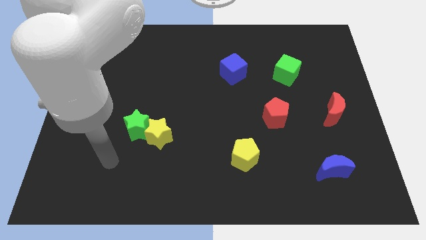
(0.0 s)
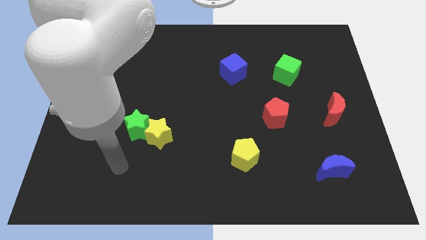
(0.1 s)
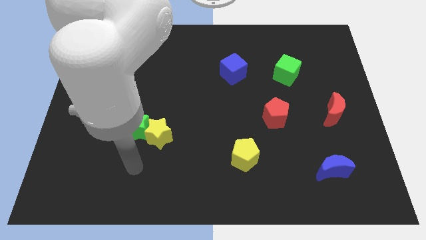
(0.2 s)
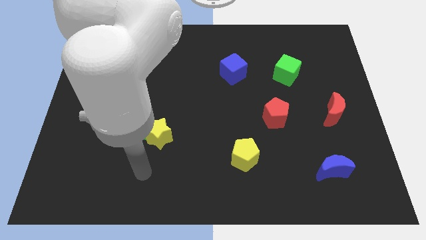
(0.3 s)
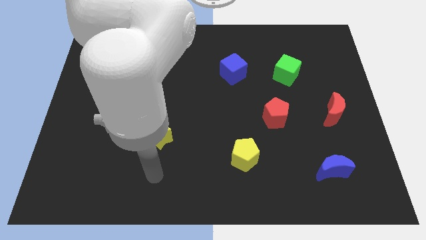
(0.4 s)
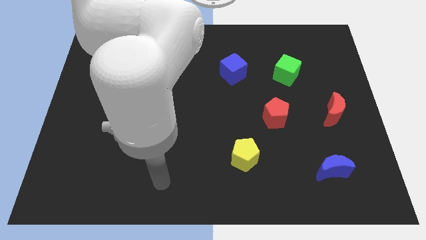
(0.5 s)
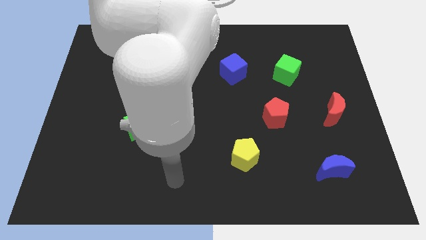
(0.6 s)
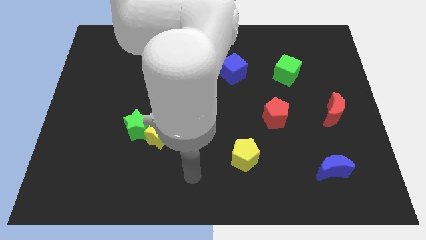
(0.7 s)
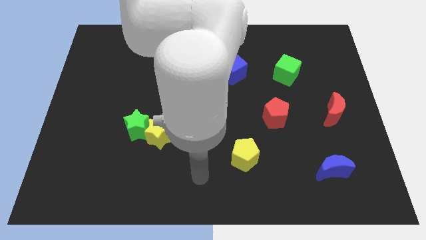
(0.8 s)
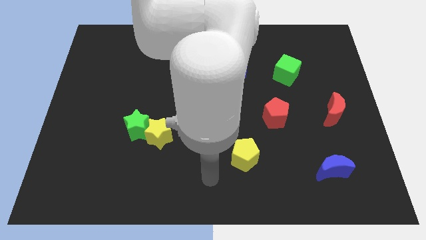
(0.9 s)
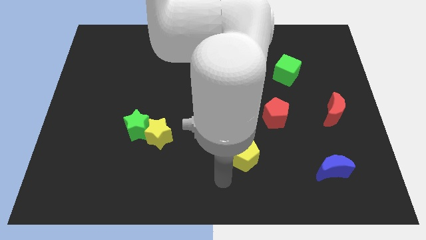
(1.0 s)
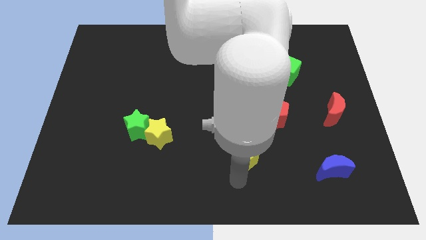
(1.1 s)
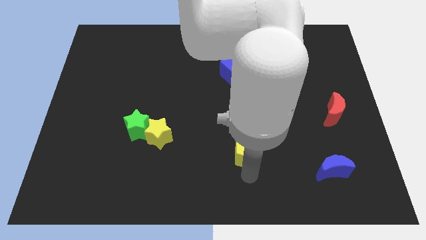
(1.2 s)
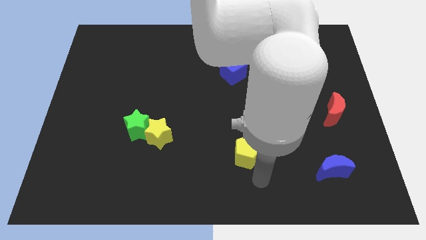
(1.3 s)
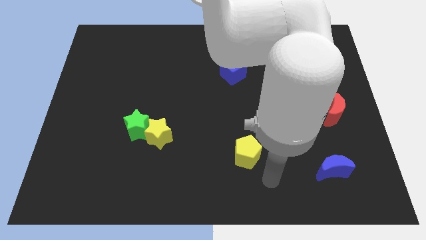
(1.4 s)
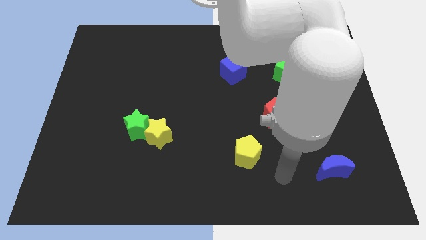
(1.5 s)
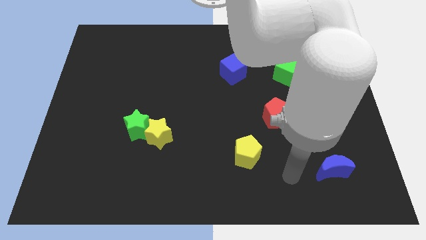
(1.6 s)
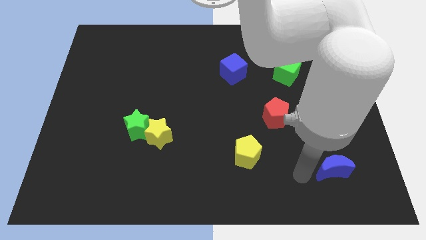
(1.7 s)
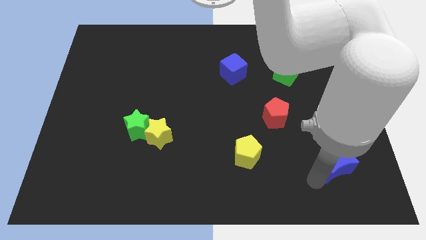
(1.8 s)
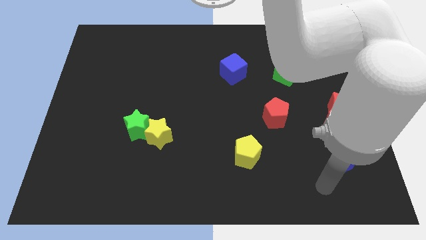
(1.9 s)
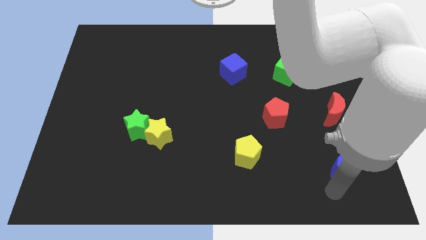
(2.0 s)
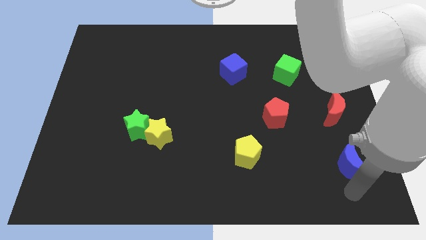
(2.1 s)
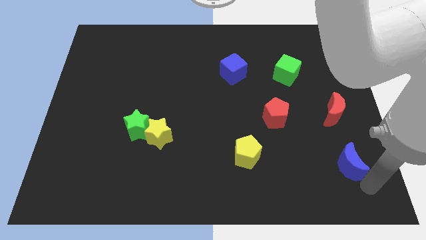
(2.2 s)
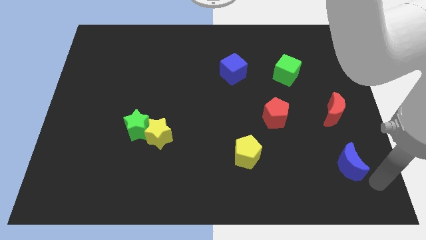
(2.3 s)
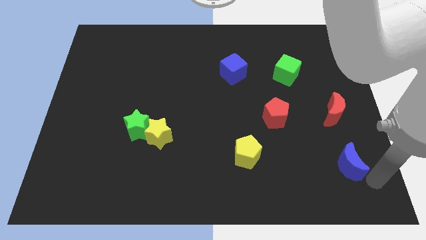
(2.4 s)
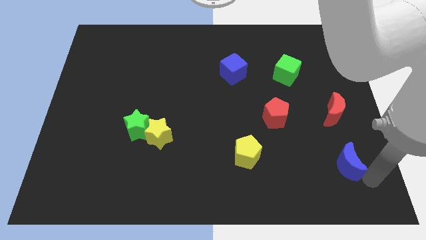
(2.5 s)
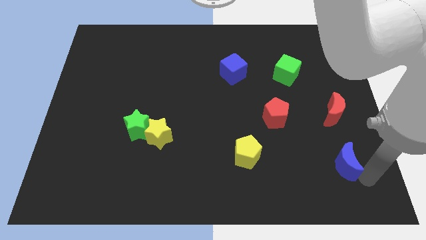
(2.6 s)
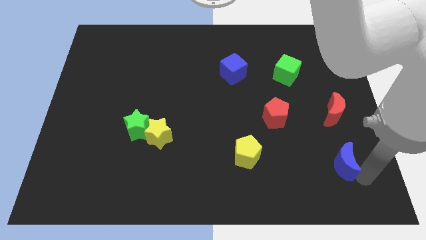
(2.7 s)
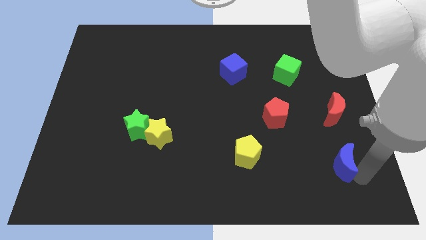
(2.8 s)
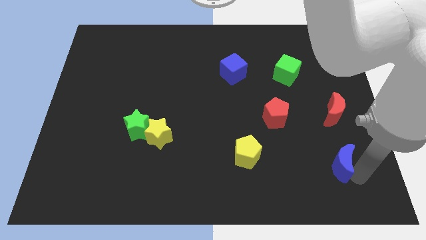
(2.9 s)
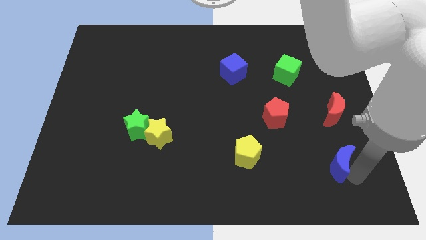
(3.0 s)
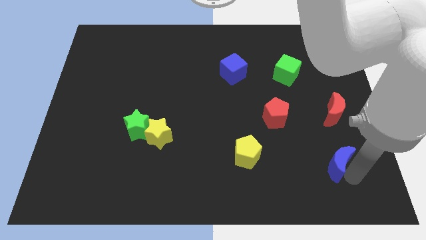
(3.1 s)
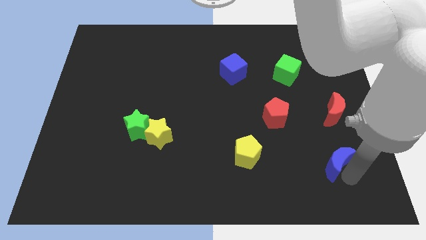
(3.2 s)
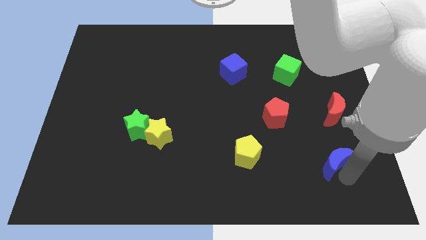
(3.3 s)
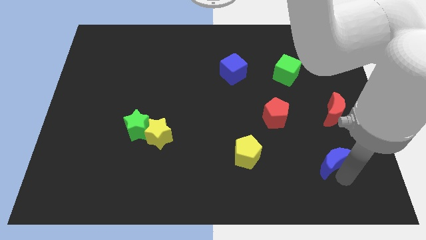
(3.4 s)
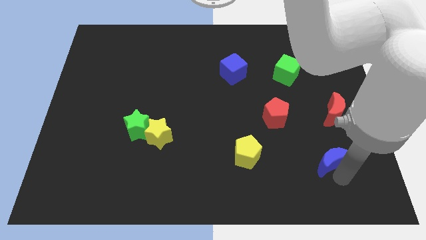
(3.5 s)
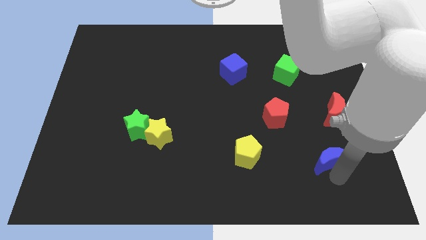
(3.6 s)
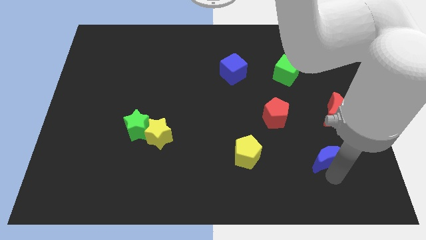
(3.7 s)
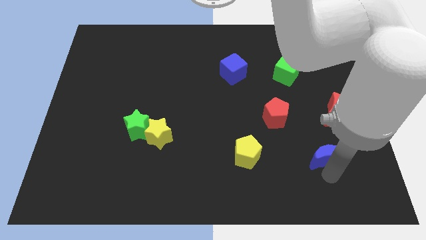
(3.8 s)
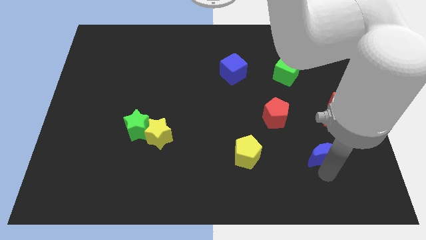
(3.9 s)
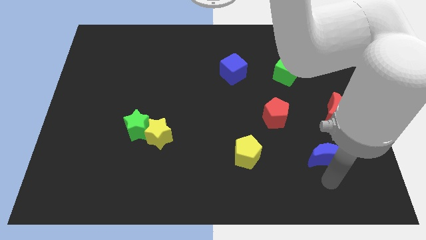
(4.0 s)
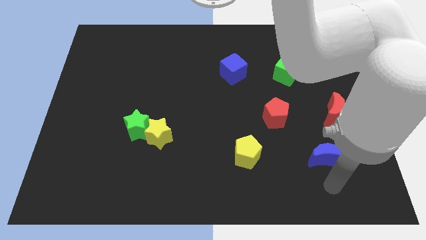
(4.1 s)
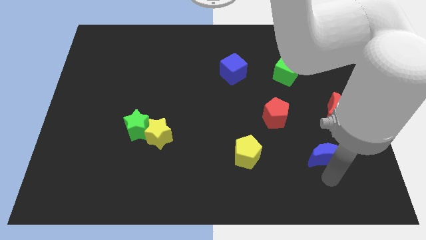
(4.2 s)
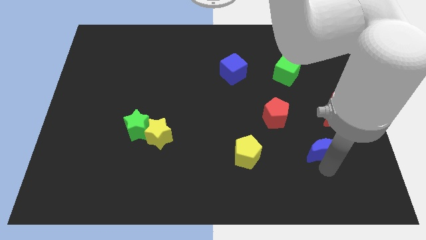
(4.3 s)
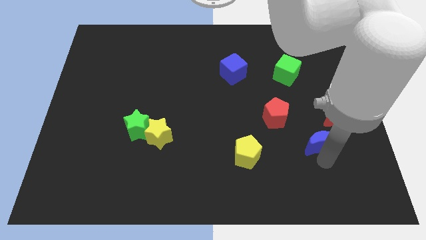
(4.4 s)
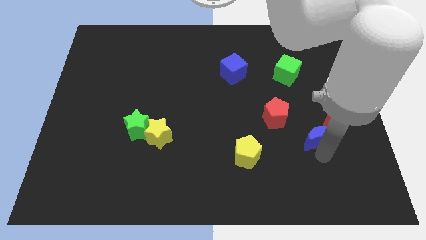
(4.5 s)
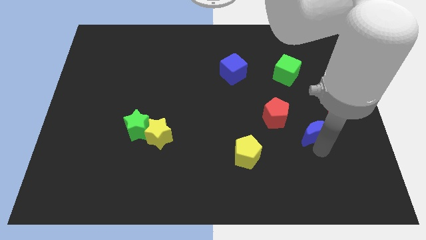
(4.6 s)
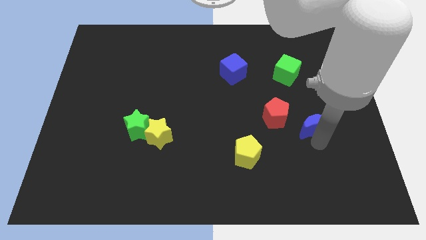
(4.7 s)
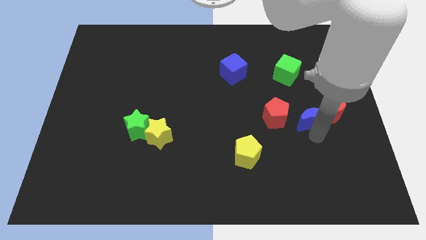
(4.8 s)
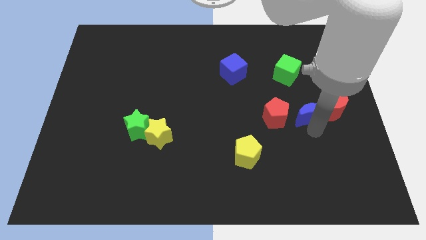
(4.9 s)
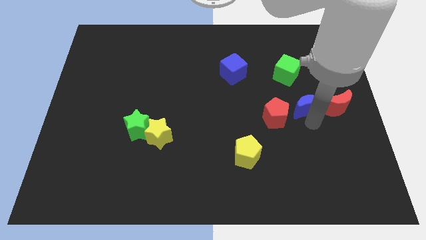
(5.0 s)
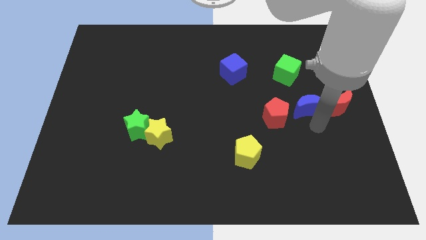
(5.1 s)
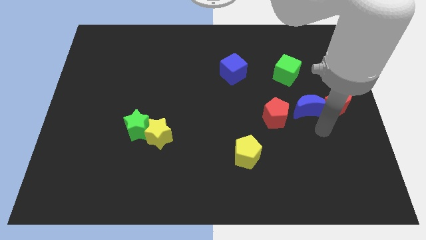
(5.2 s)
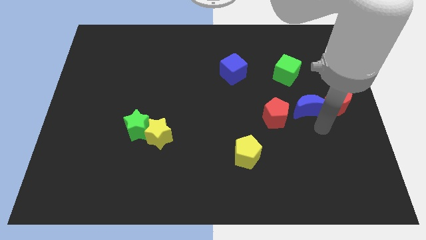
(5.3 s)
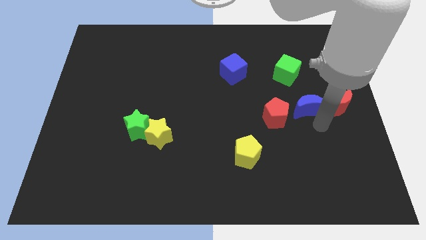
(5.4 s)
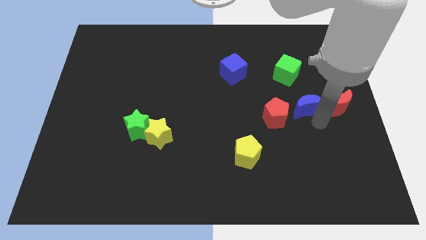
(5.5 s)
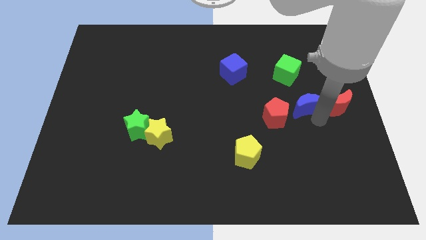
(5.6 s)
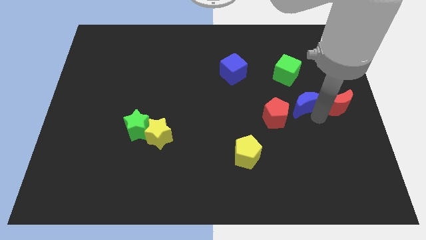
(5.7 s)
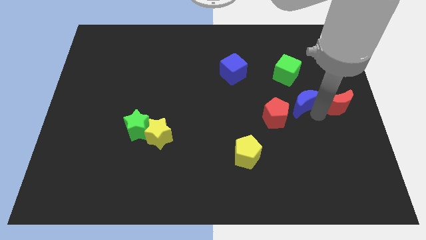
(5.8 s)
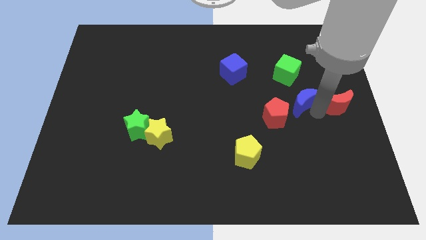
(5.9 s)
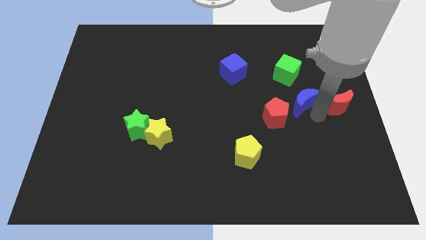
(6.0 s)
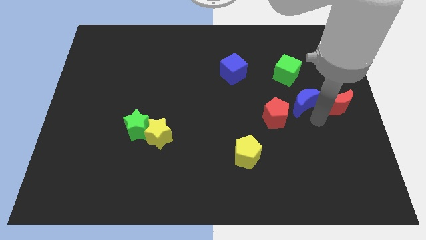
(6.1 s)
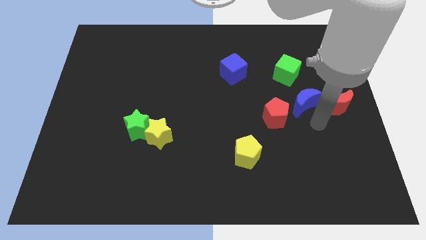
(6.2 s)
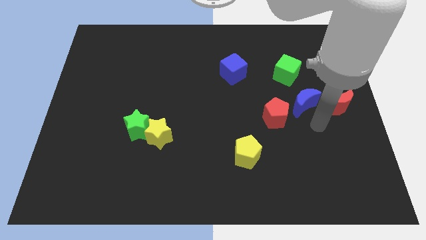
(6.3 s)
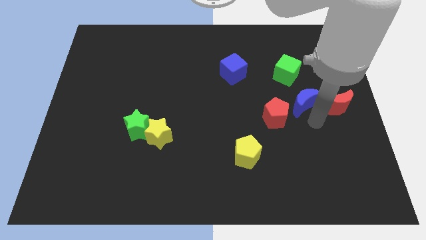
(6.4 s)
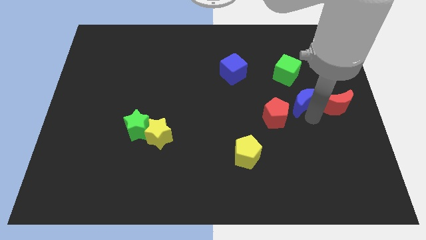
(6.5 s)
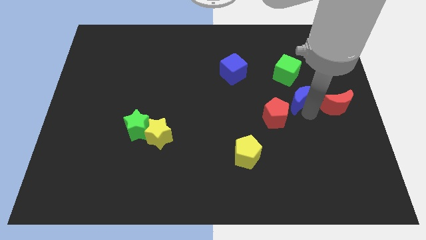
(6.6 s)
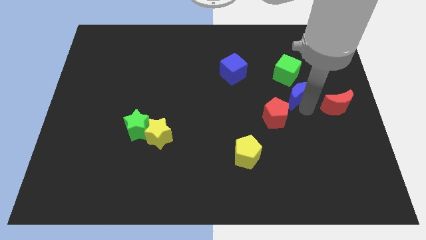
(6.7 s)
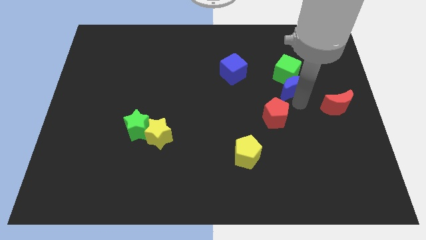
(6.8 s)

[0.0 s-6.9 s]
slide the blue moon up

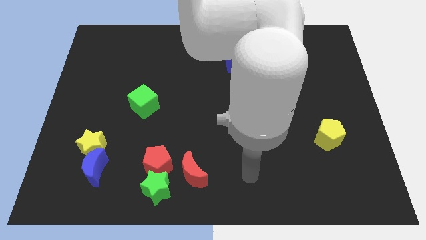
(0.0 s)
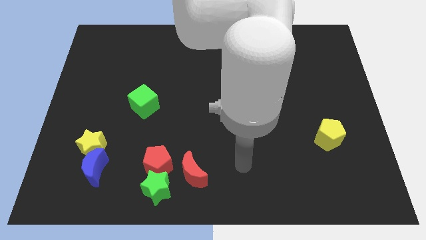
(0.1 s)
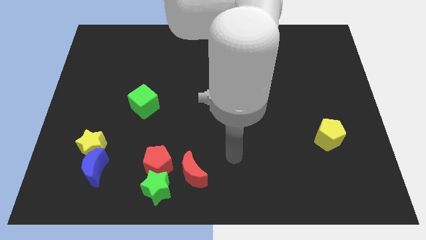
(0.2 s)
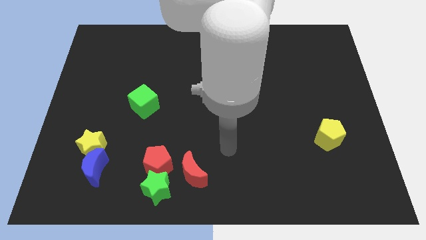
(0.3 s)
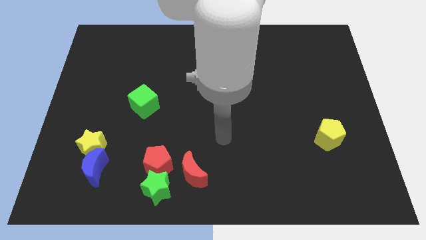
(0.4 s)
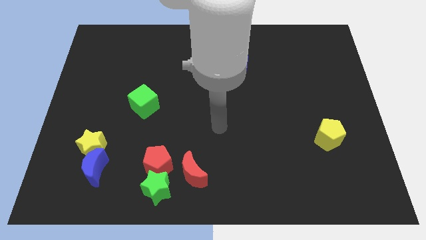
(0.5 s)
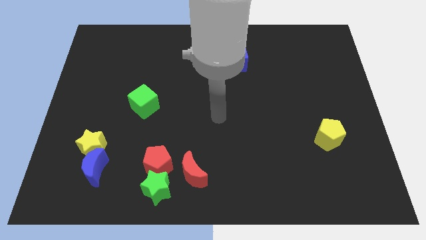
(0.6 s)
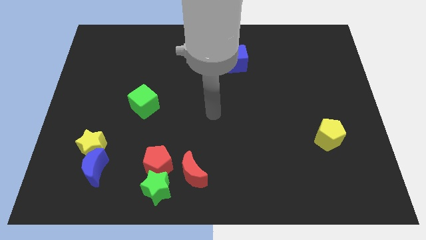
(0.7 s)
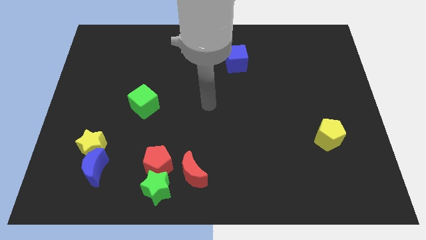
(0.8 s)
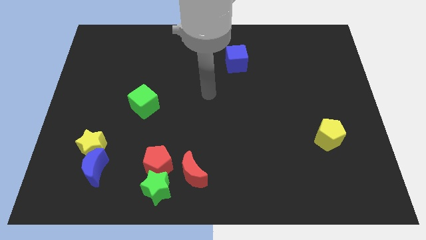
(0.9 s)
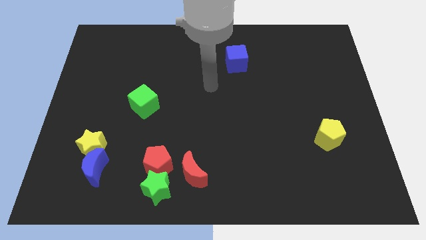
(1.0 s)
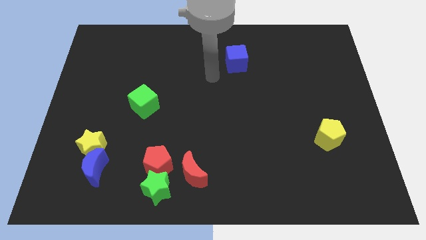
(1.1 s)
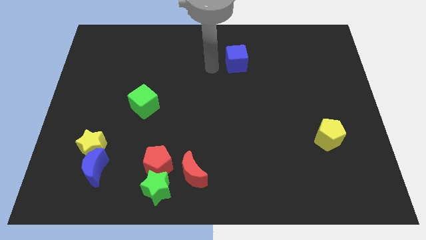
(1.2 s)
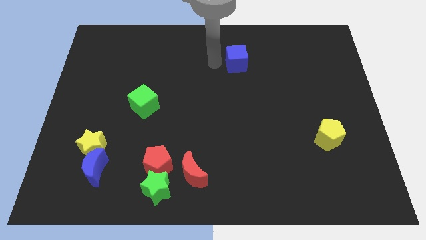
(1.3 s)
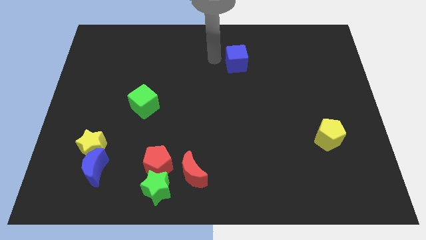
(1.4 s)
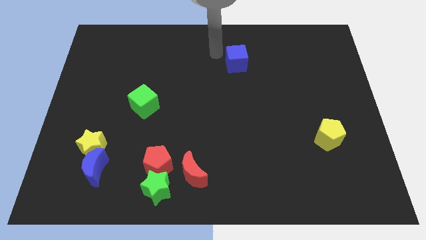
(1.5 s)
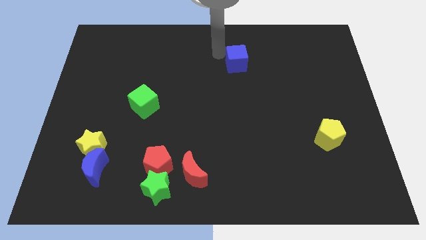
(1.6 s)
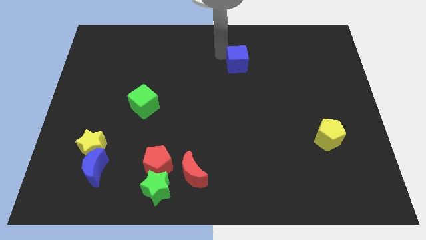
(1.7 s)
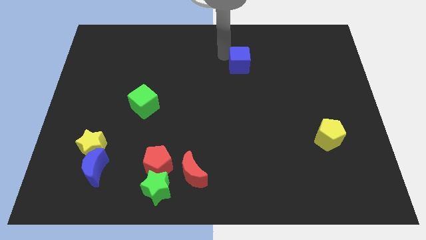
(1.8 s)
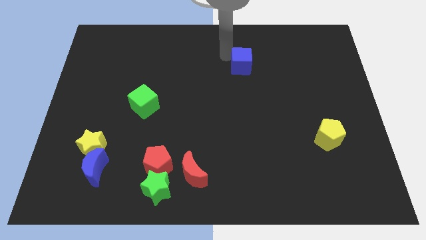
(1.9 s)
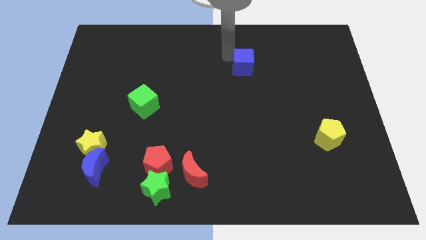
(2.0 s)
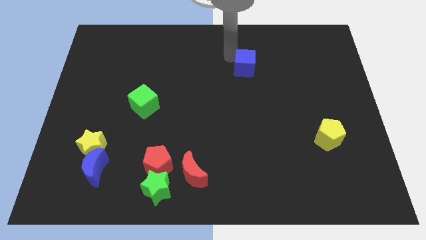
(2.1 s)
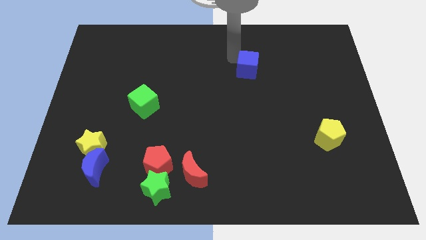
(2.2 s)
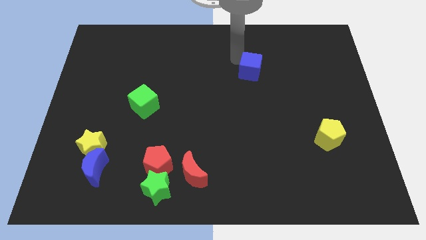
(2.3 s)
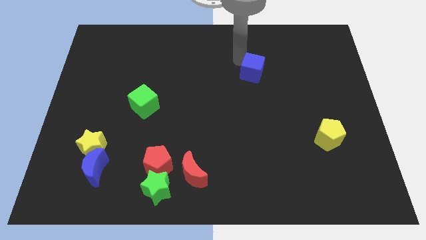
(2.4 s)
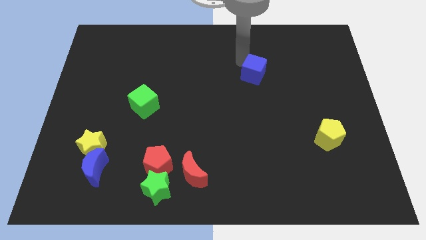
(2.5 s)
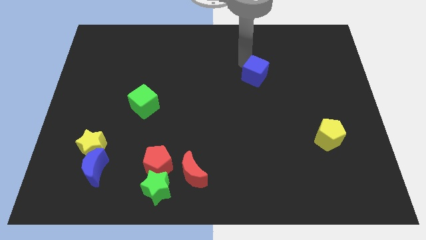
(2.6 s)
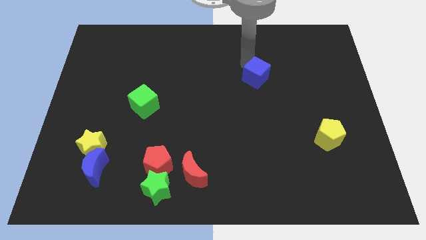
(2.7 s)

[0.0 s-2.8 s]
push the blue cube diagonally down and right a little
